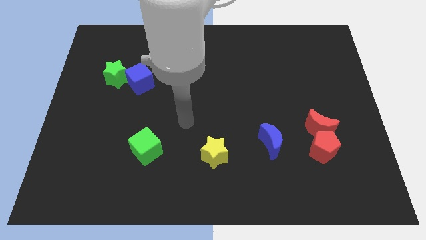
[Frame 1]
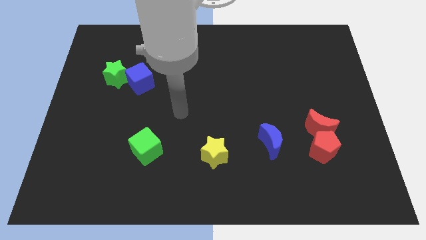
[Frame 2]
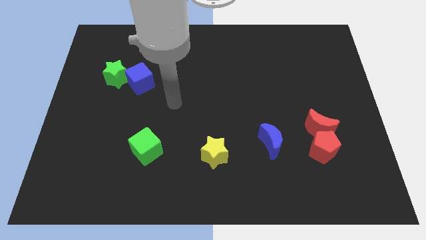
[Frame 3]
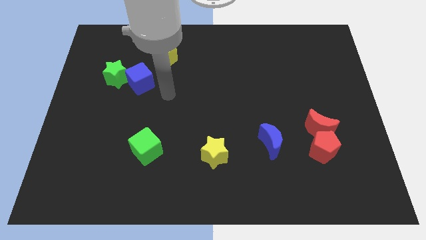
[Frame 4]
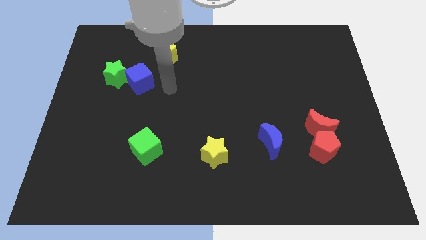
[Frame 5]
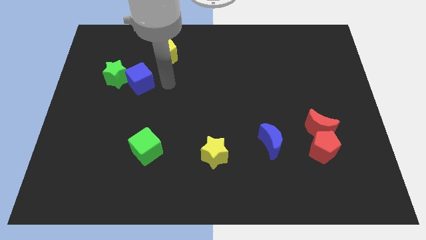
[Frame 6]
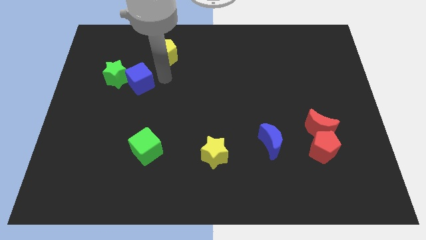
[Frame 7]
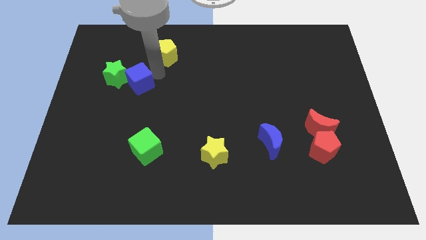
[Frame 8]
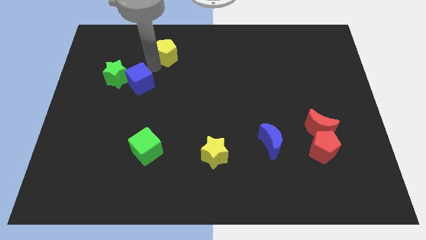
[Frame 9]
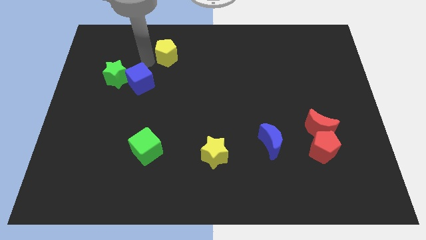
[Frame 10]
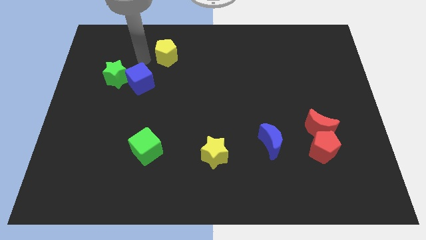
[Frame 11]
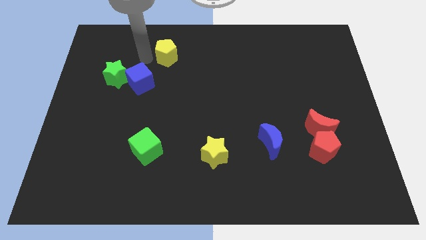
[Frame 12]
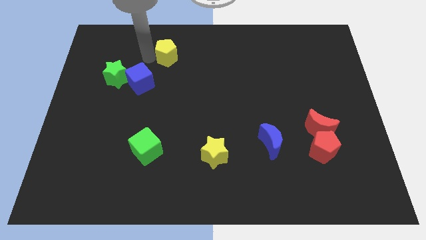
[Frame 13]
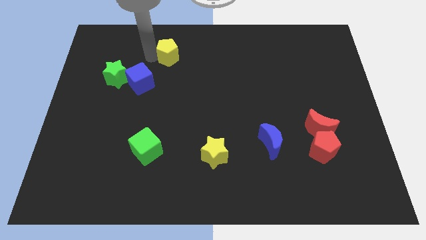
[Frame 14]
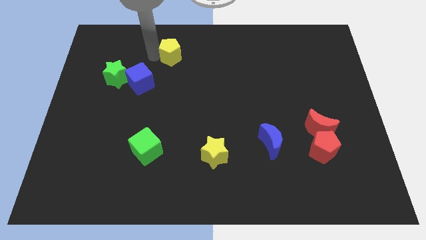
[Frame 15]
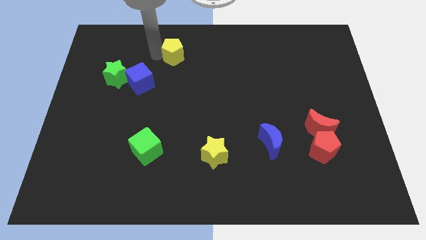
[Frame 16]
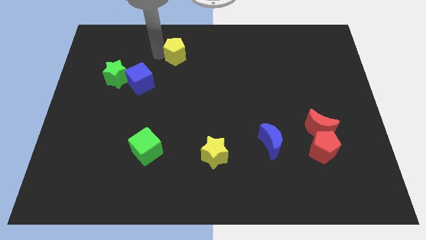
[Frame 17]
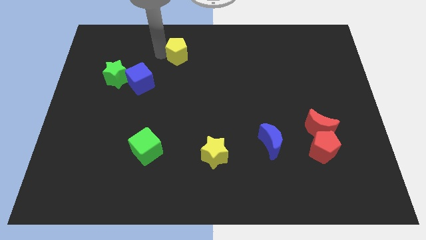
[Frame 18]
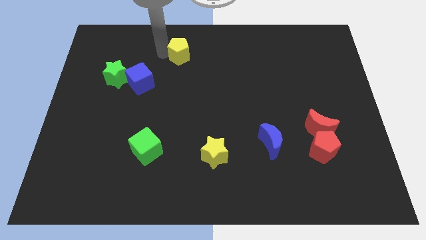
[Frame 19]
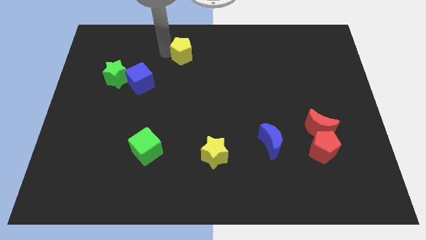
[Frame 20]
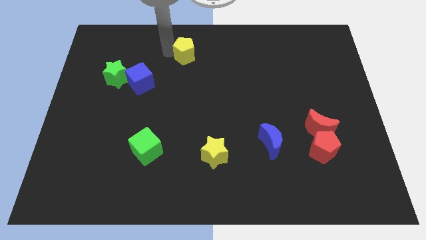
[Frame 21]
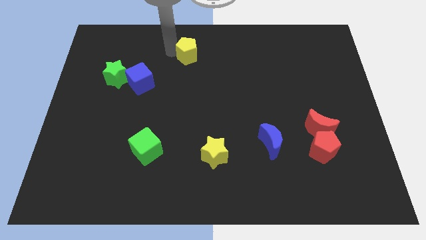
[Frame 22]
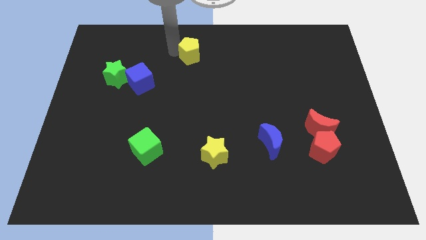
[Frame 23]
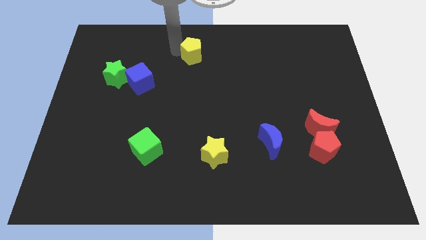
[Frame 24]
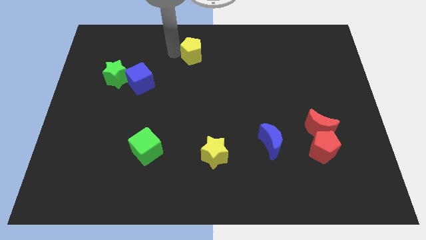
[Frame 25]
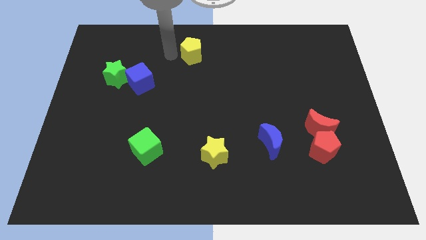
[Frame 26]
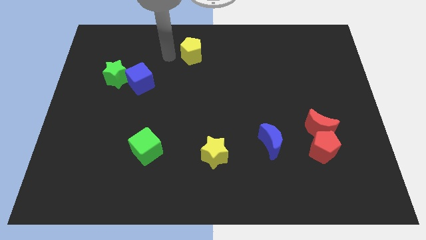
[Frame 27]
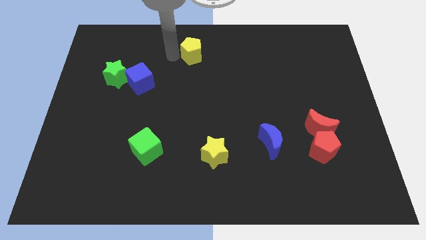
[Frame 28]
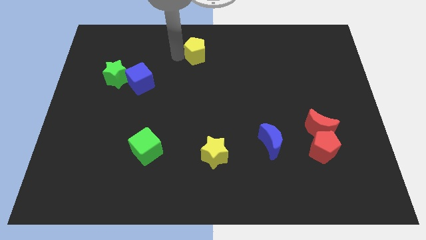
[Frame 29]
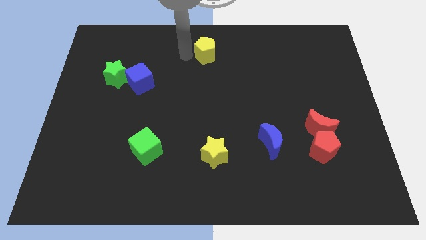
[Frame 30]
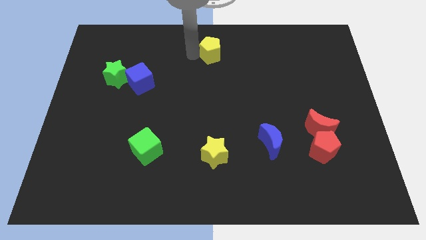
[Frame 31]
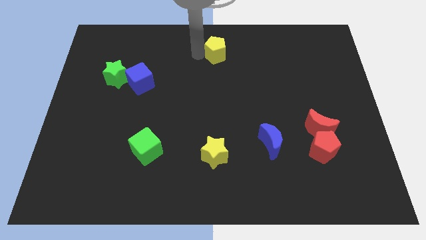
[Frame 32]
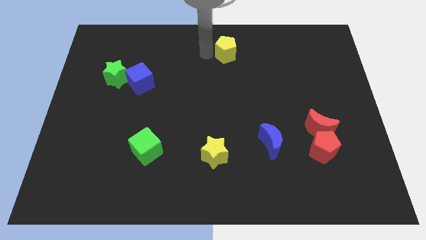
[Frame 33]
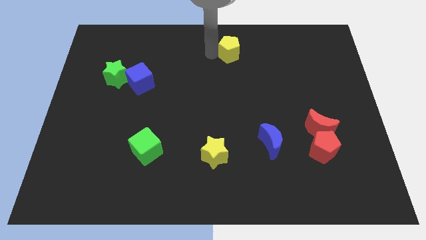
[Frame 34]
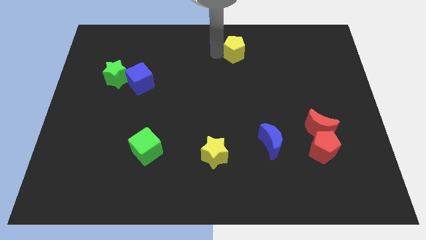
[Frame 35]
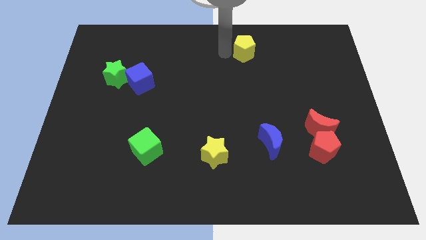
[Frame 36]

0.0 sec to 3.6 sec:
slide the yellow pentagon right

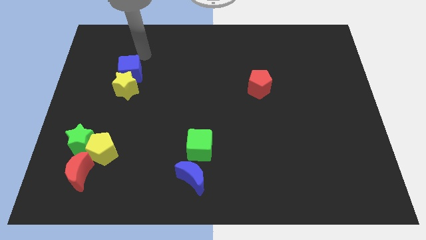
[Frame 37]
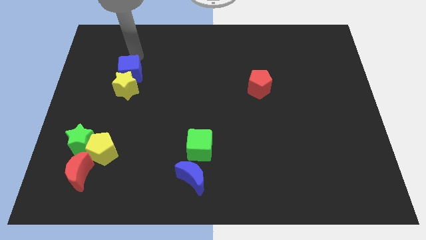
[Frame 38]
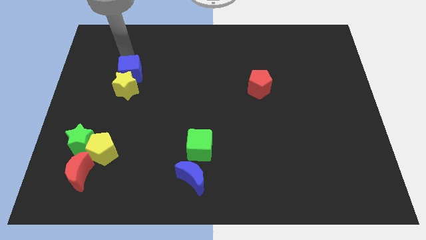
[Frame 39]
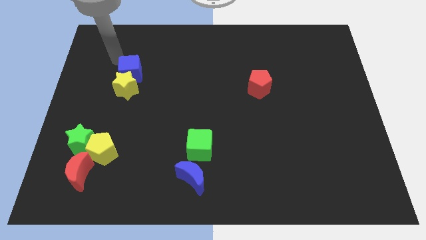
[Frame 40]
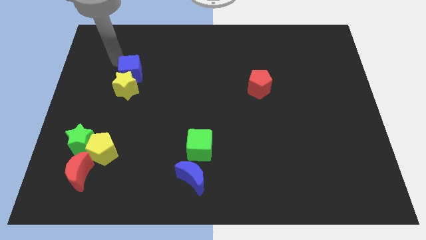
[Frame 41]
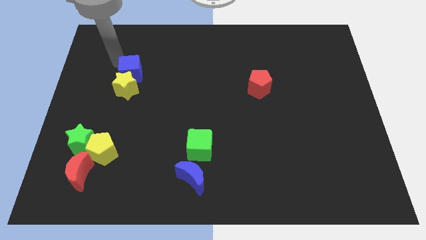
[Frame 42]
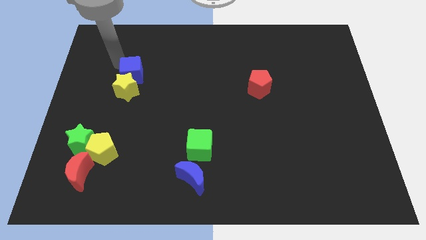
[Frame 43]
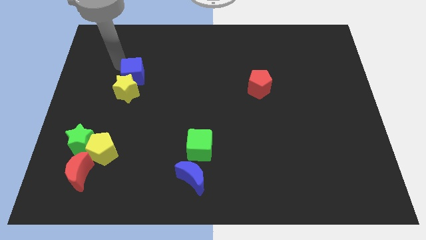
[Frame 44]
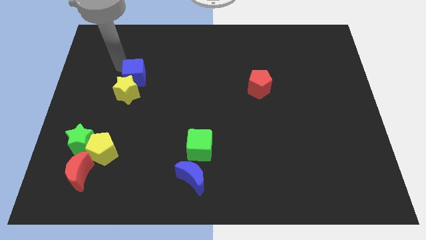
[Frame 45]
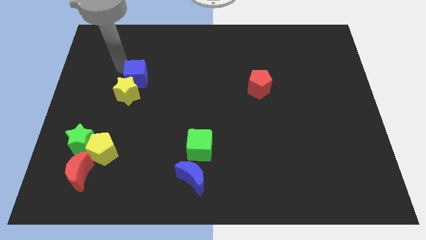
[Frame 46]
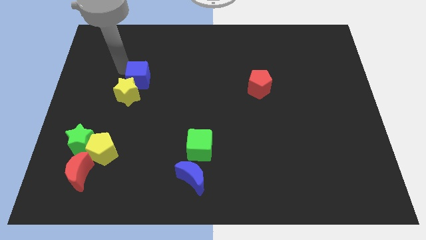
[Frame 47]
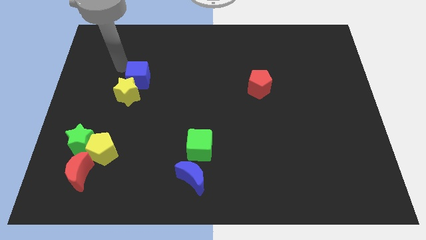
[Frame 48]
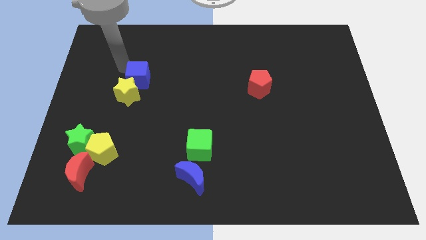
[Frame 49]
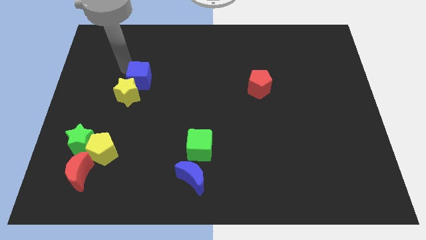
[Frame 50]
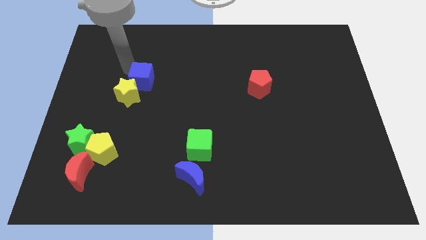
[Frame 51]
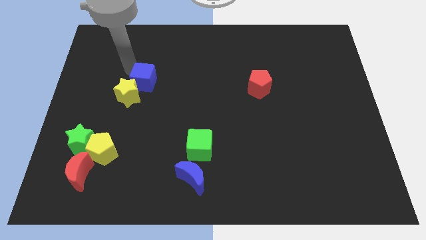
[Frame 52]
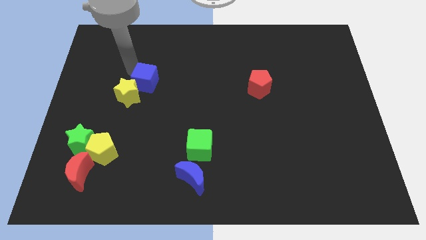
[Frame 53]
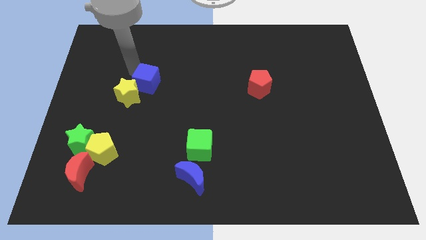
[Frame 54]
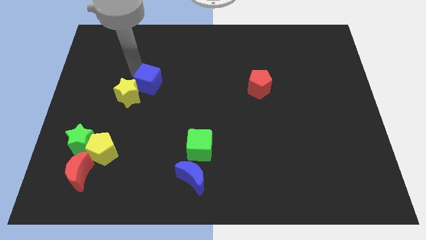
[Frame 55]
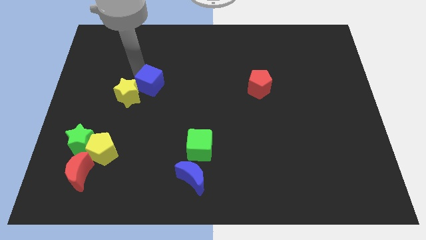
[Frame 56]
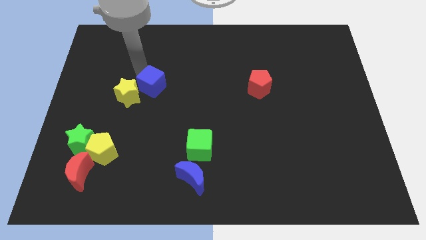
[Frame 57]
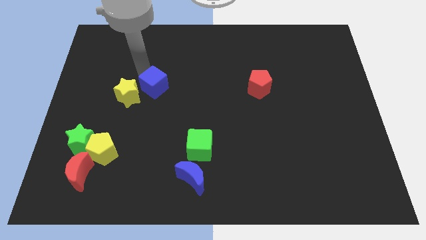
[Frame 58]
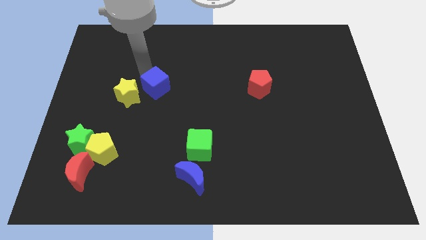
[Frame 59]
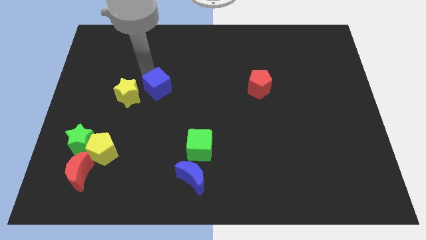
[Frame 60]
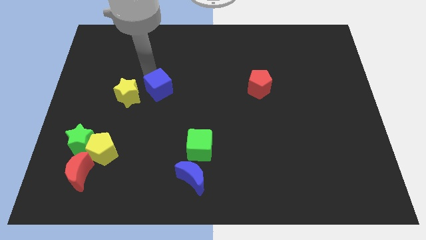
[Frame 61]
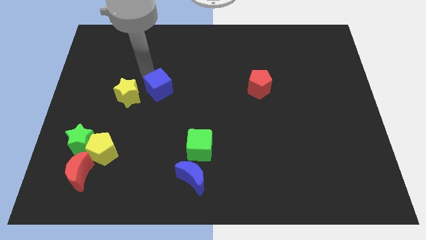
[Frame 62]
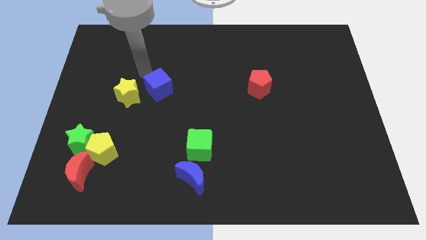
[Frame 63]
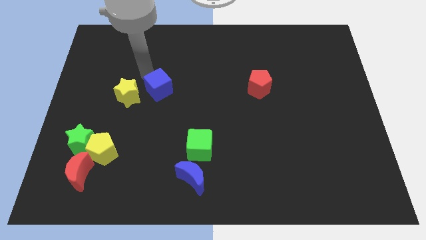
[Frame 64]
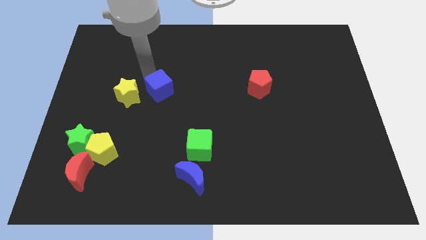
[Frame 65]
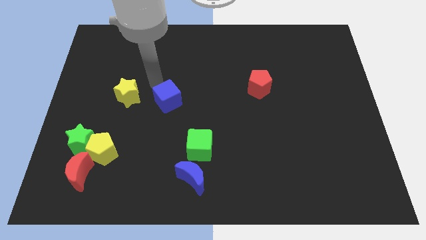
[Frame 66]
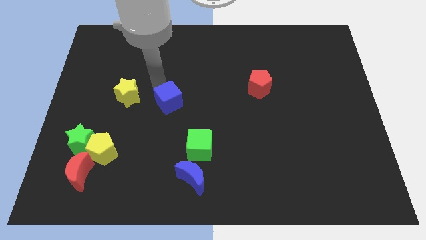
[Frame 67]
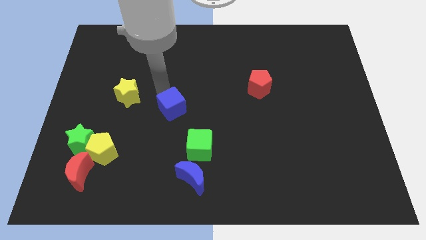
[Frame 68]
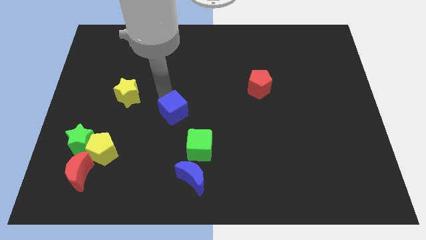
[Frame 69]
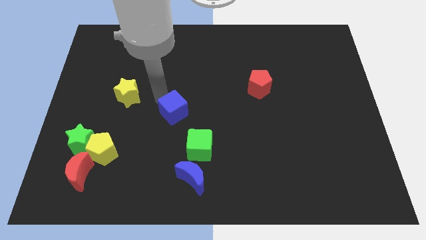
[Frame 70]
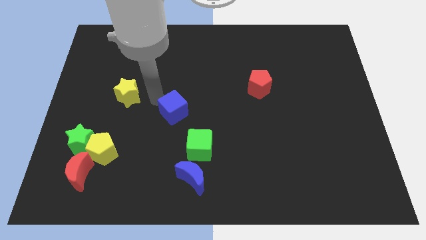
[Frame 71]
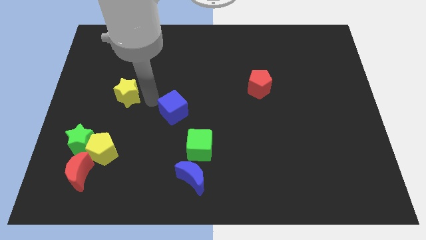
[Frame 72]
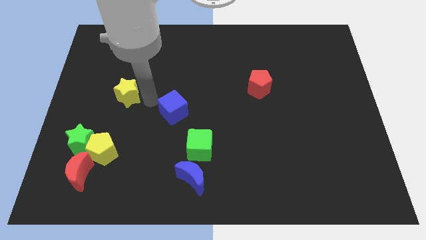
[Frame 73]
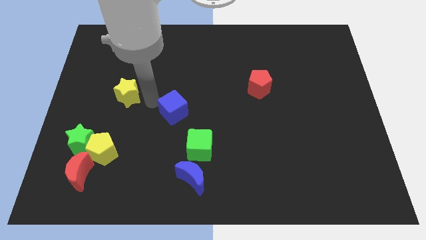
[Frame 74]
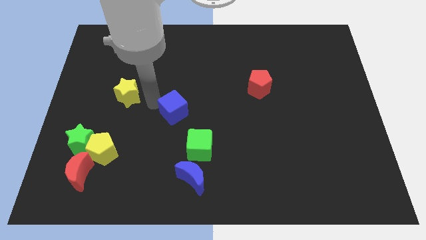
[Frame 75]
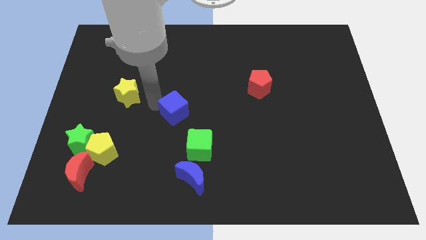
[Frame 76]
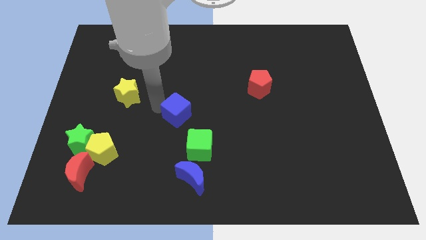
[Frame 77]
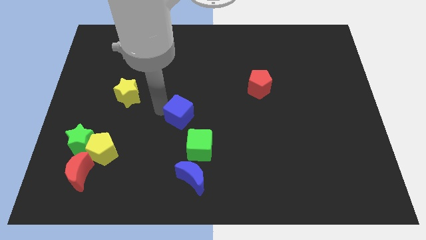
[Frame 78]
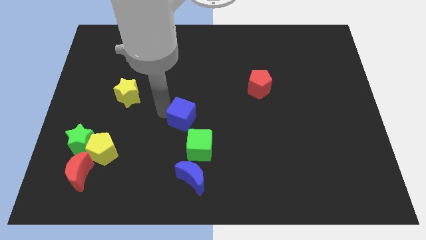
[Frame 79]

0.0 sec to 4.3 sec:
slide the blue cube downwards and right

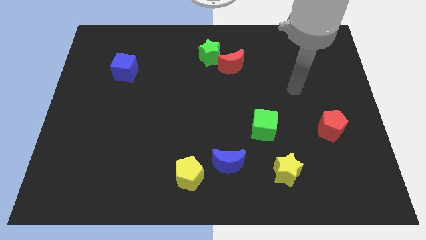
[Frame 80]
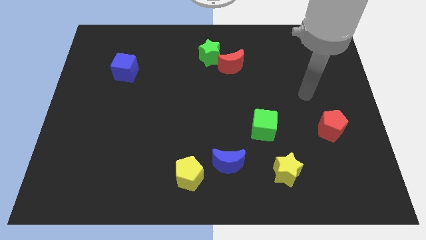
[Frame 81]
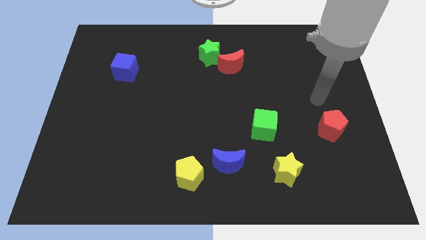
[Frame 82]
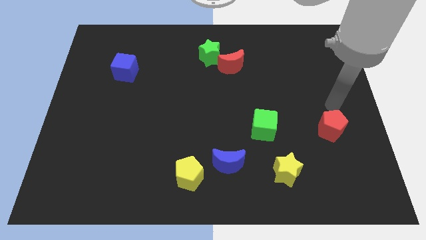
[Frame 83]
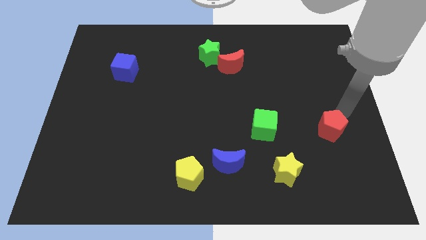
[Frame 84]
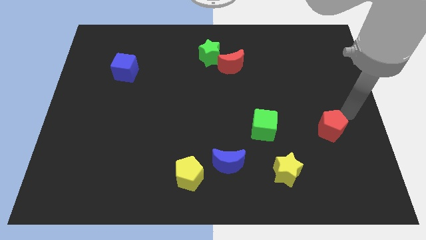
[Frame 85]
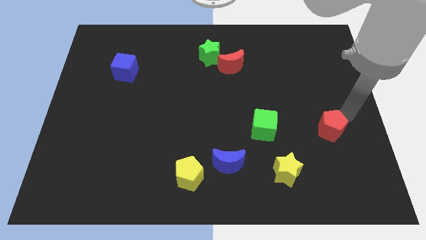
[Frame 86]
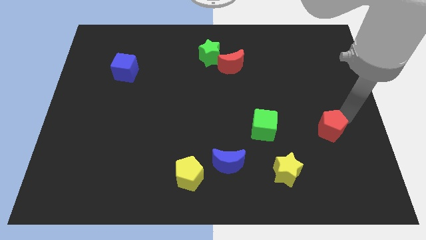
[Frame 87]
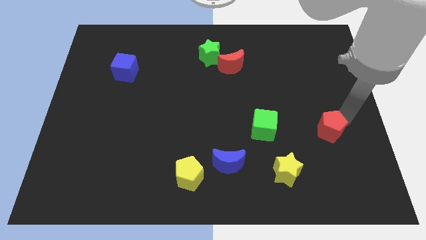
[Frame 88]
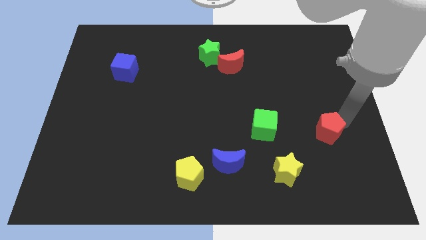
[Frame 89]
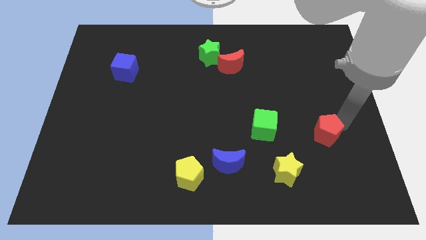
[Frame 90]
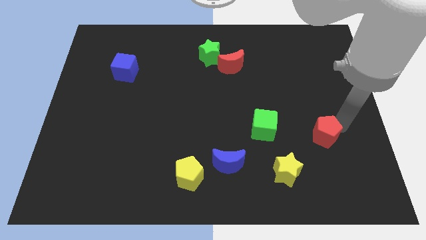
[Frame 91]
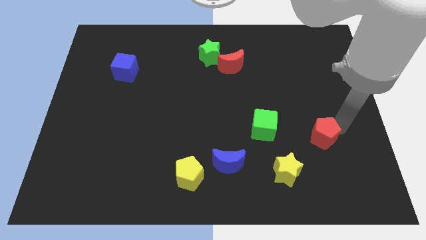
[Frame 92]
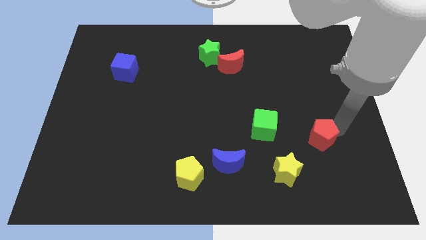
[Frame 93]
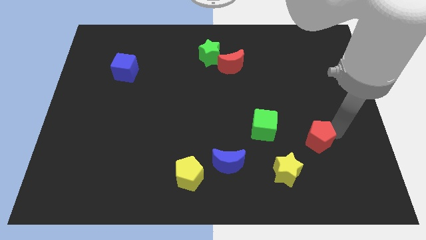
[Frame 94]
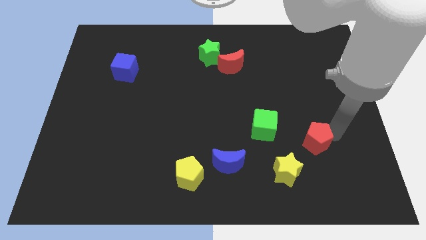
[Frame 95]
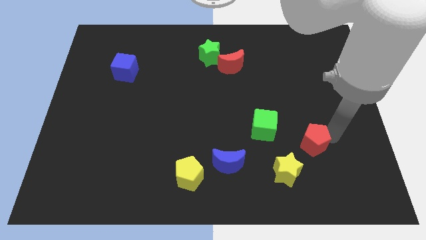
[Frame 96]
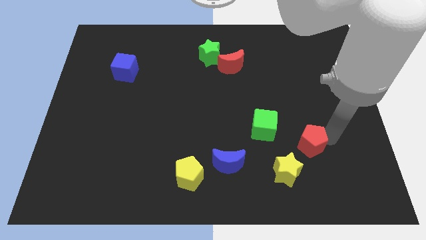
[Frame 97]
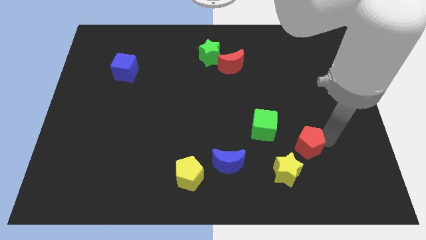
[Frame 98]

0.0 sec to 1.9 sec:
move the red pentagon diagonally down and to the left slightly
